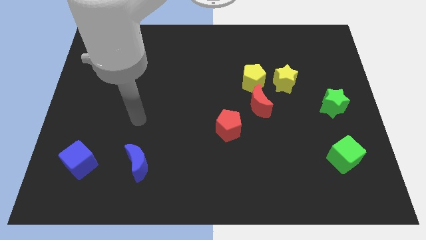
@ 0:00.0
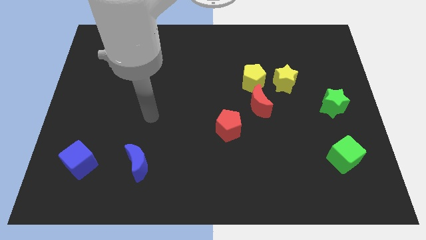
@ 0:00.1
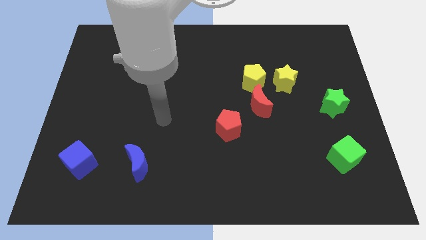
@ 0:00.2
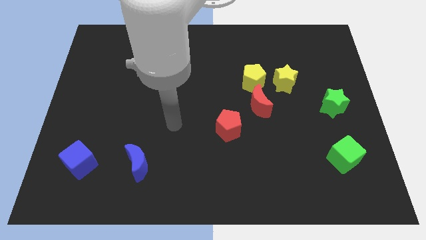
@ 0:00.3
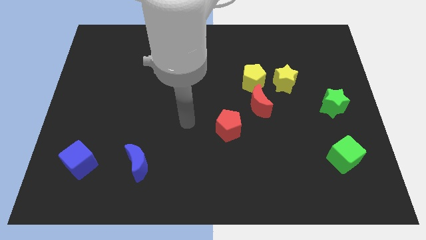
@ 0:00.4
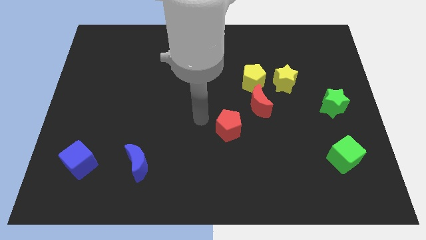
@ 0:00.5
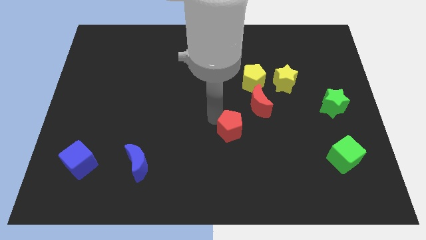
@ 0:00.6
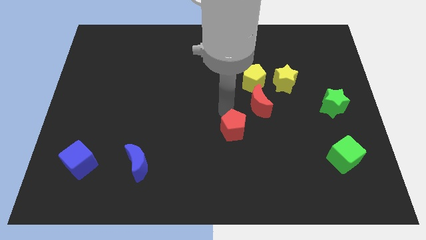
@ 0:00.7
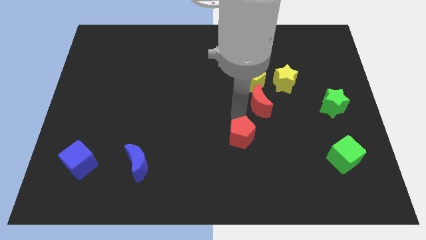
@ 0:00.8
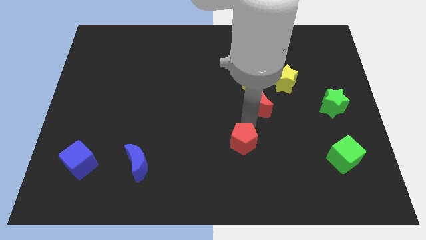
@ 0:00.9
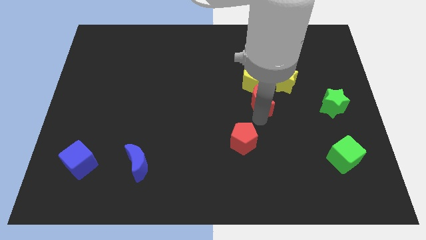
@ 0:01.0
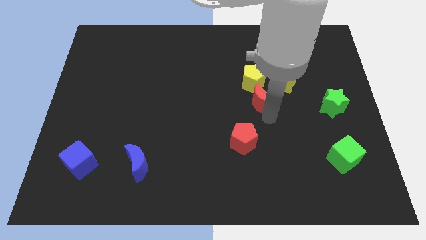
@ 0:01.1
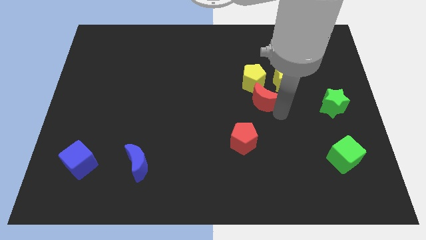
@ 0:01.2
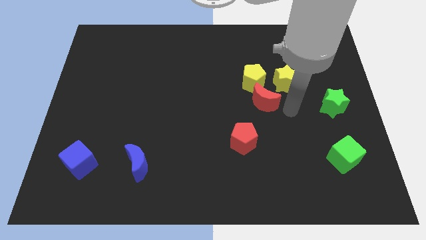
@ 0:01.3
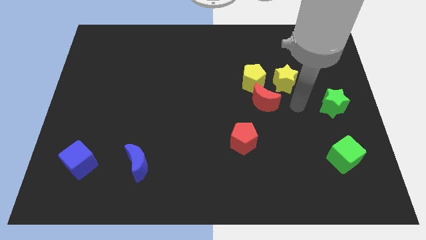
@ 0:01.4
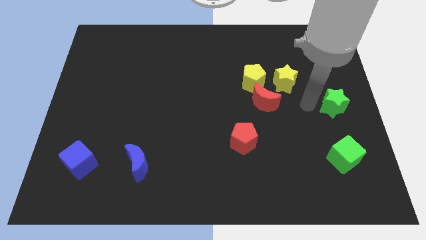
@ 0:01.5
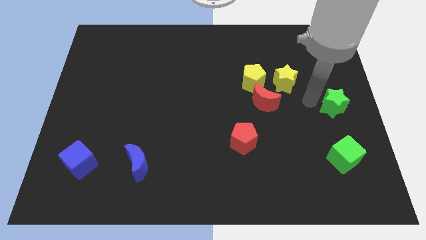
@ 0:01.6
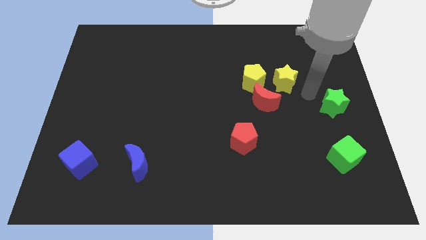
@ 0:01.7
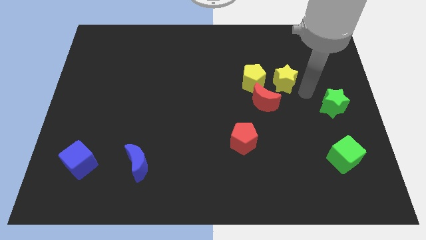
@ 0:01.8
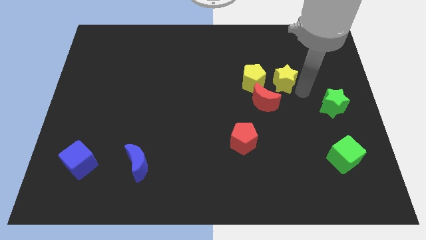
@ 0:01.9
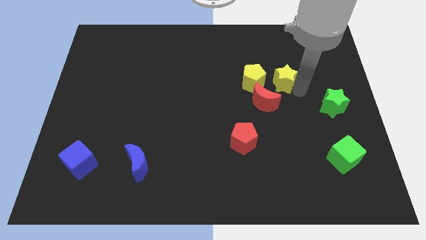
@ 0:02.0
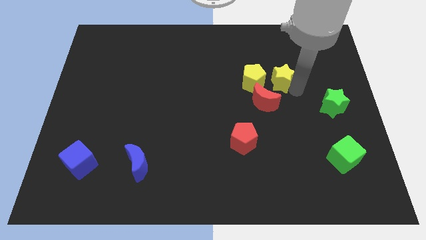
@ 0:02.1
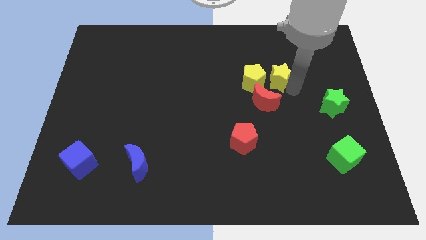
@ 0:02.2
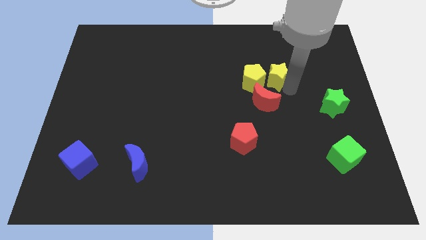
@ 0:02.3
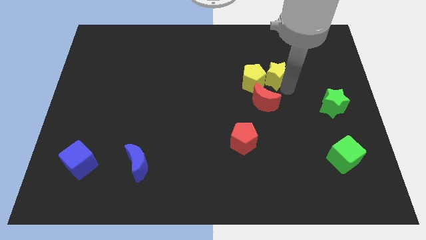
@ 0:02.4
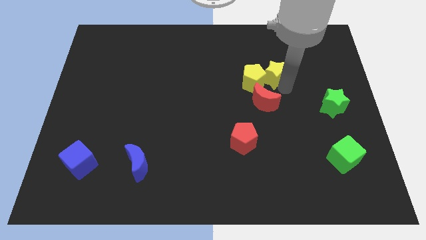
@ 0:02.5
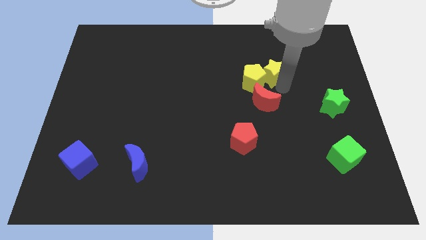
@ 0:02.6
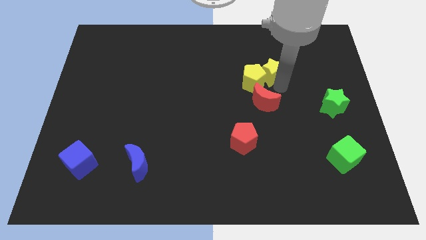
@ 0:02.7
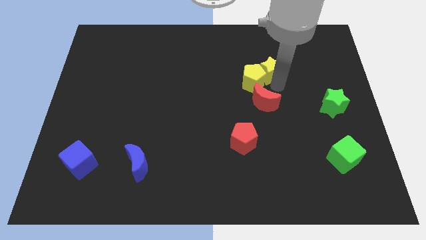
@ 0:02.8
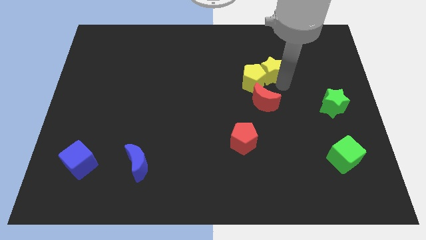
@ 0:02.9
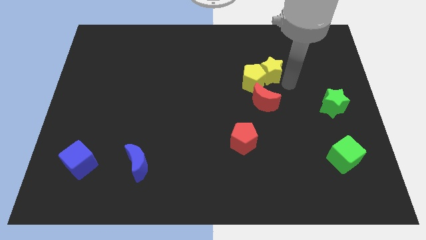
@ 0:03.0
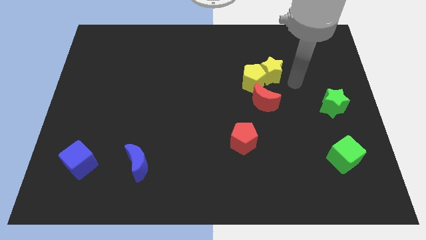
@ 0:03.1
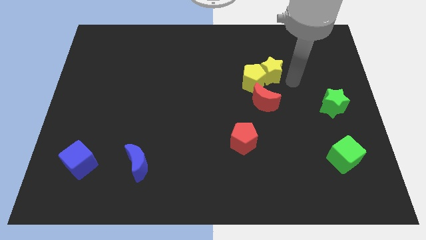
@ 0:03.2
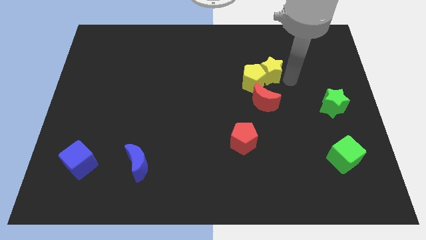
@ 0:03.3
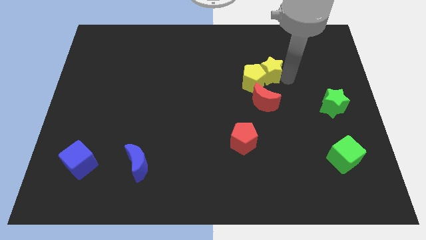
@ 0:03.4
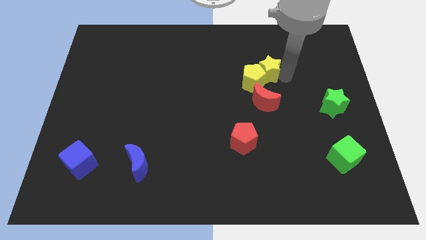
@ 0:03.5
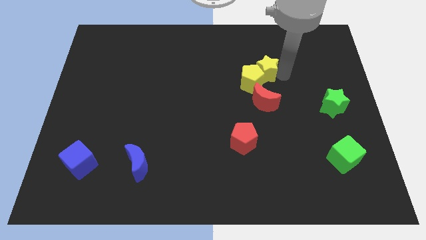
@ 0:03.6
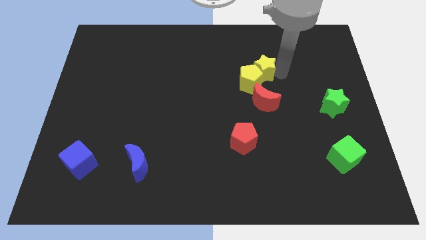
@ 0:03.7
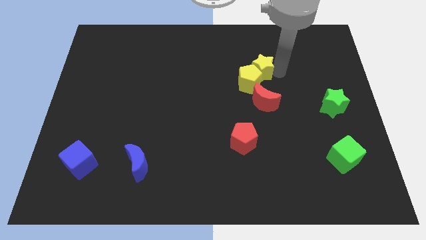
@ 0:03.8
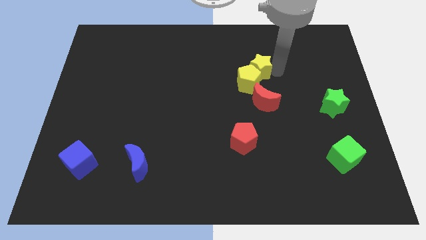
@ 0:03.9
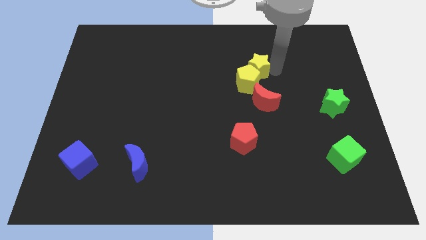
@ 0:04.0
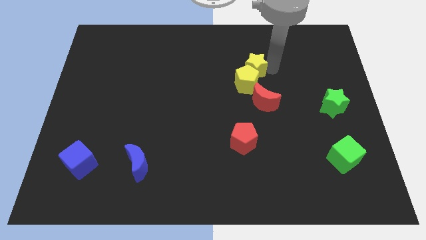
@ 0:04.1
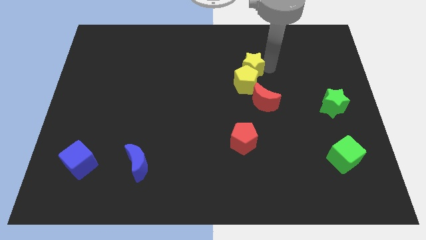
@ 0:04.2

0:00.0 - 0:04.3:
slightly slide the yellow star to the left

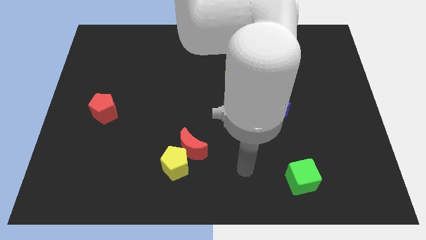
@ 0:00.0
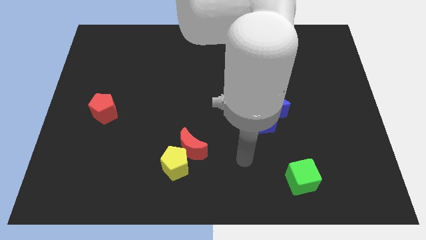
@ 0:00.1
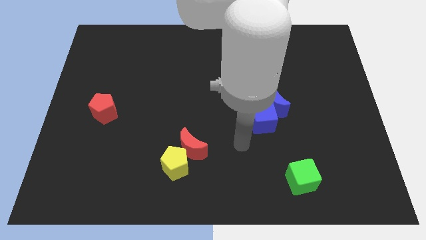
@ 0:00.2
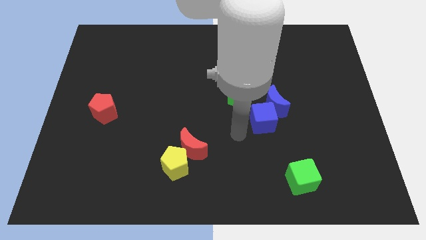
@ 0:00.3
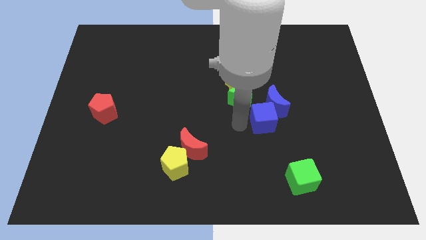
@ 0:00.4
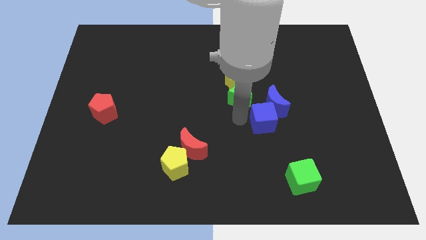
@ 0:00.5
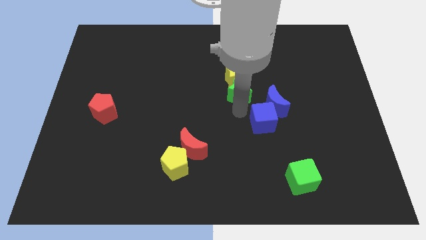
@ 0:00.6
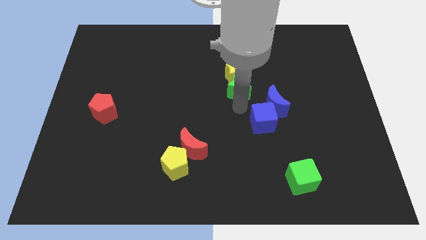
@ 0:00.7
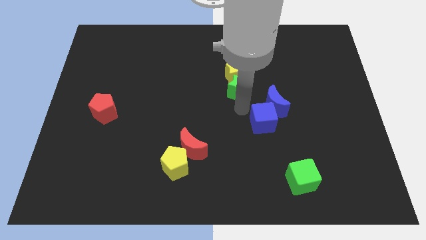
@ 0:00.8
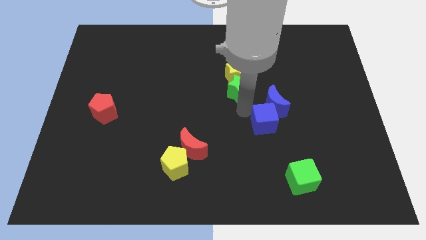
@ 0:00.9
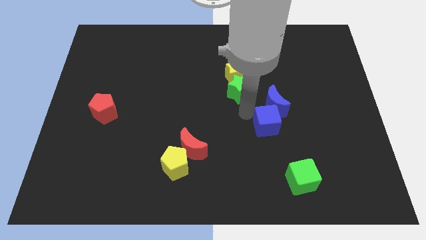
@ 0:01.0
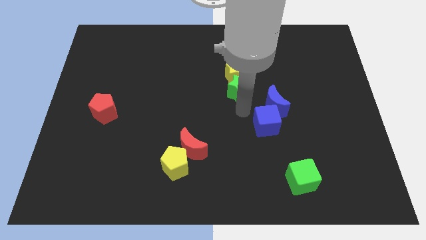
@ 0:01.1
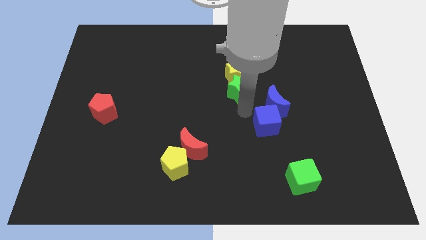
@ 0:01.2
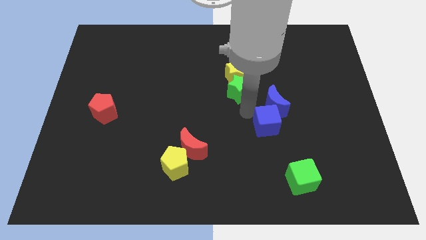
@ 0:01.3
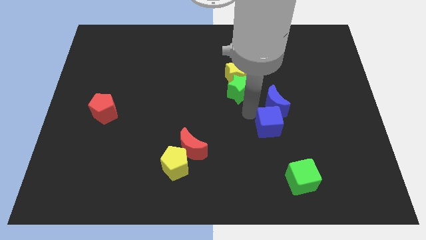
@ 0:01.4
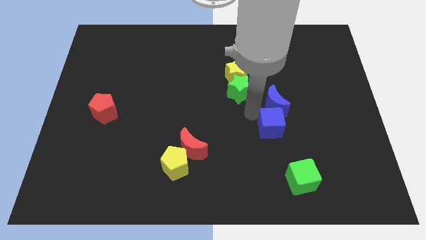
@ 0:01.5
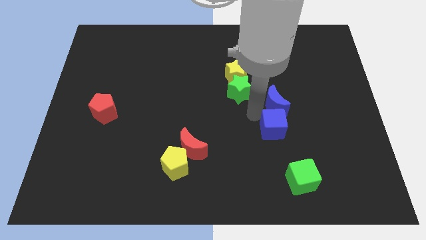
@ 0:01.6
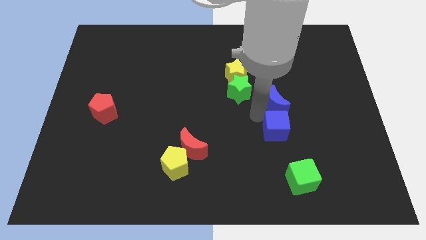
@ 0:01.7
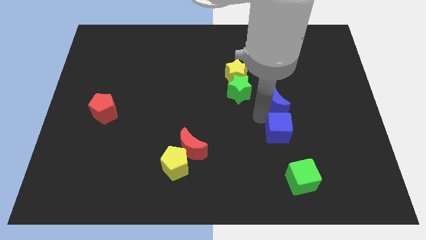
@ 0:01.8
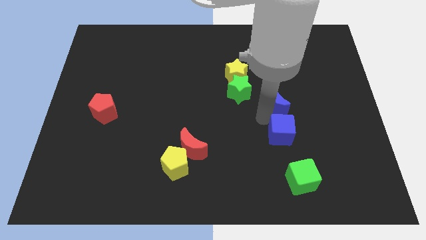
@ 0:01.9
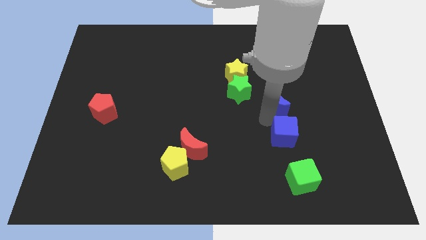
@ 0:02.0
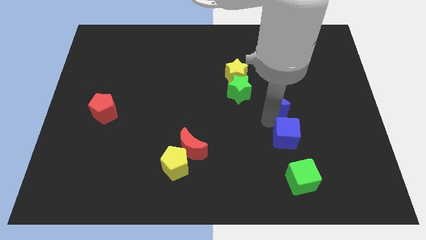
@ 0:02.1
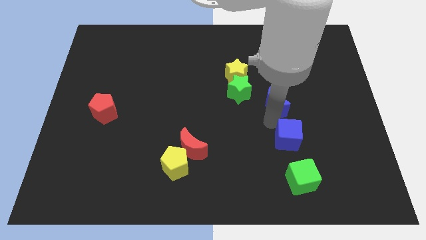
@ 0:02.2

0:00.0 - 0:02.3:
push the blue cube diagonally downwards and right slightly

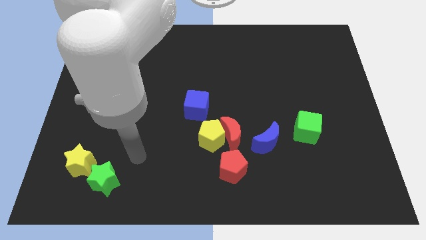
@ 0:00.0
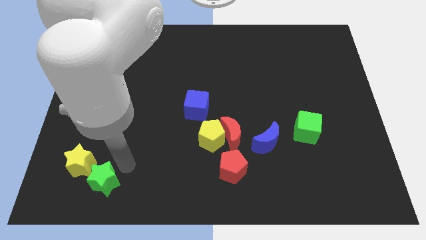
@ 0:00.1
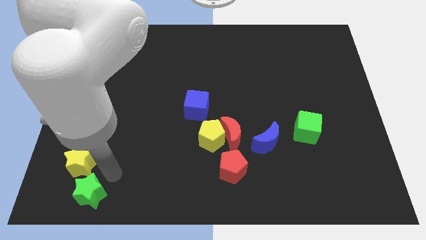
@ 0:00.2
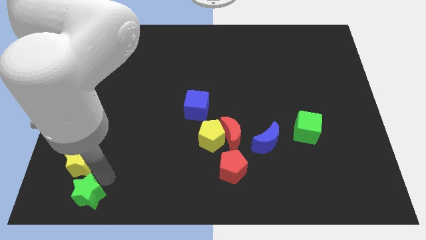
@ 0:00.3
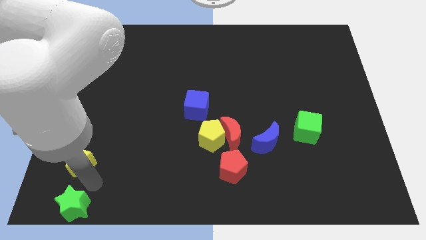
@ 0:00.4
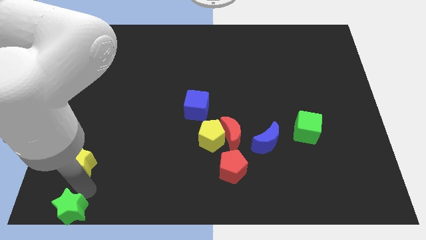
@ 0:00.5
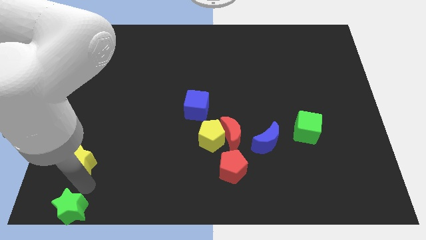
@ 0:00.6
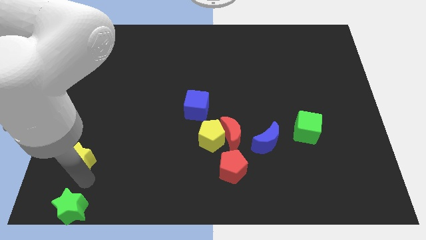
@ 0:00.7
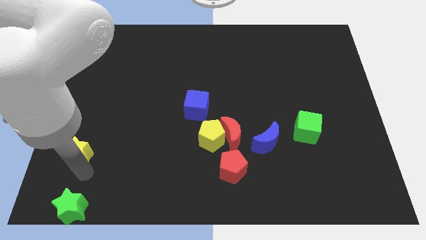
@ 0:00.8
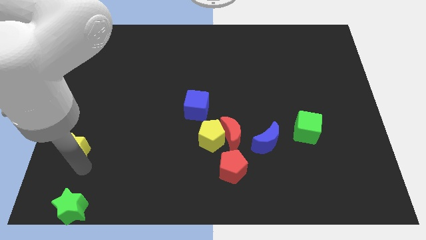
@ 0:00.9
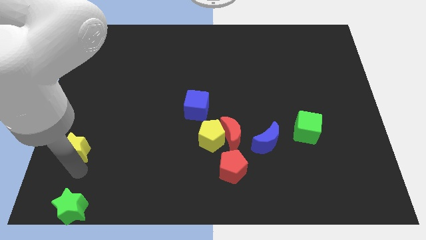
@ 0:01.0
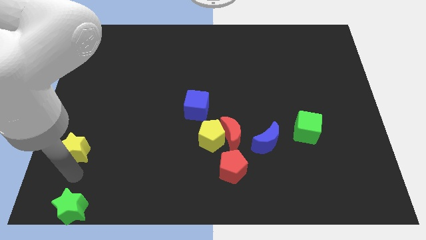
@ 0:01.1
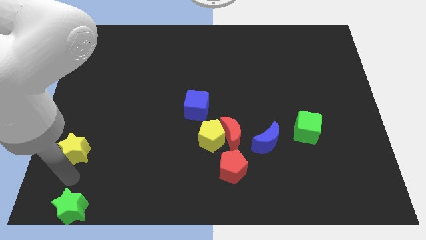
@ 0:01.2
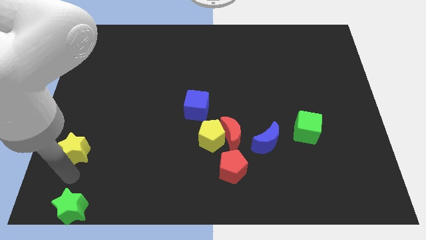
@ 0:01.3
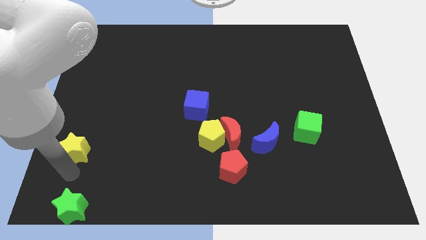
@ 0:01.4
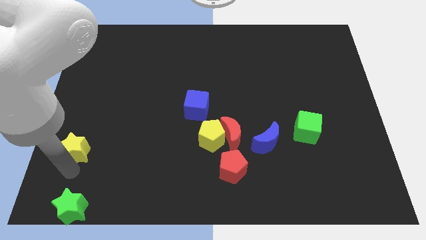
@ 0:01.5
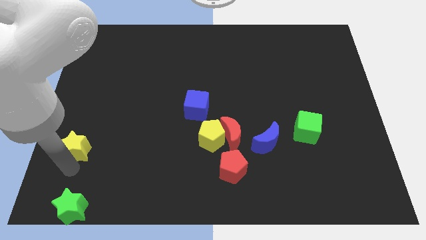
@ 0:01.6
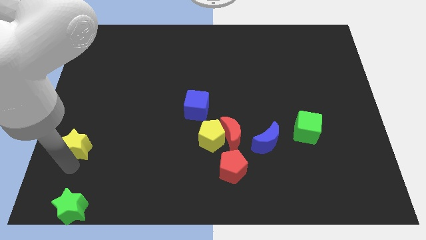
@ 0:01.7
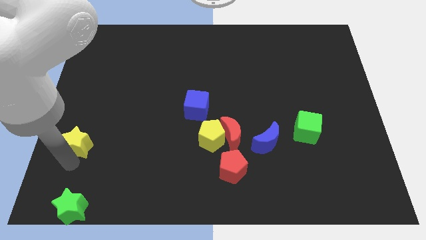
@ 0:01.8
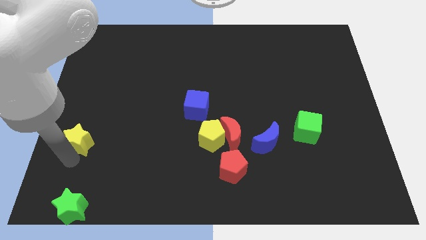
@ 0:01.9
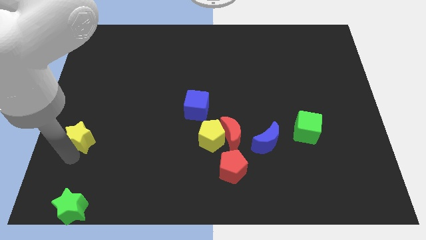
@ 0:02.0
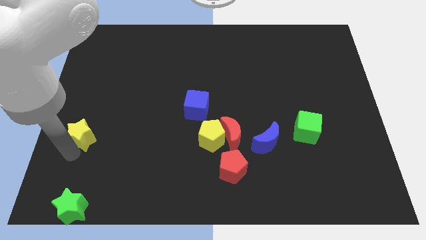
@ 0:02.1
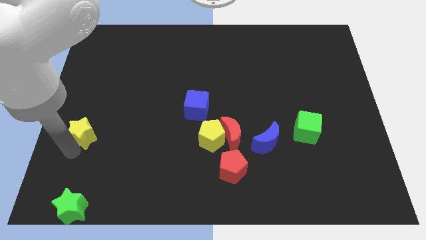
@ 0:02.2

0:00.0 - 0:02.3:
move the yellow star a little bit up
